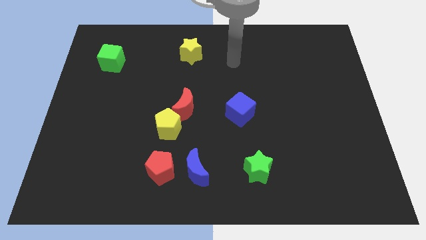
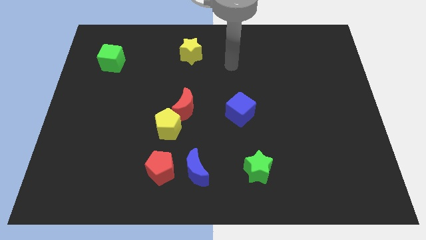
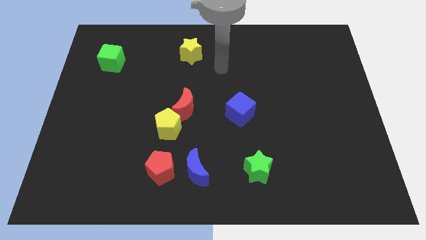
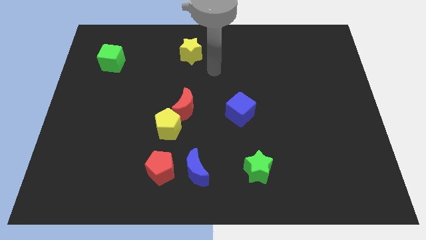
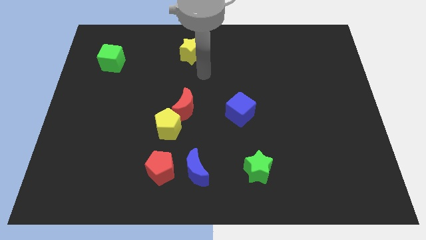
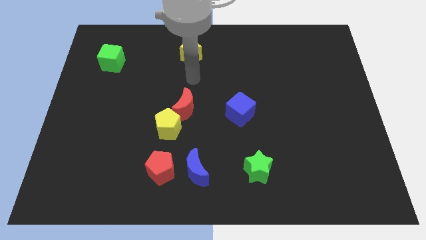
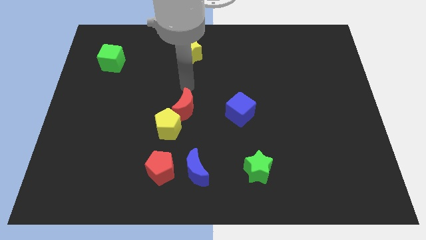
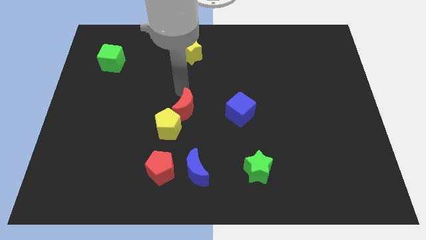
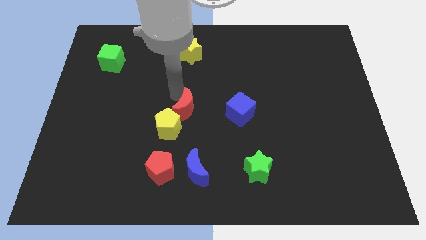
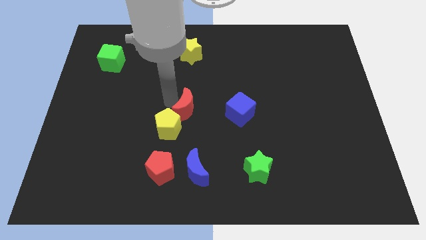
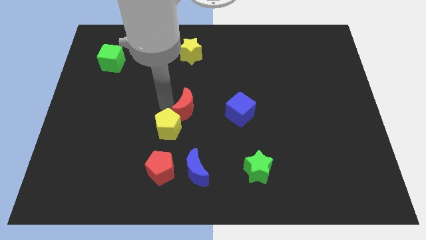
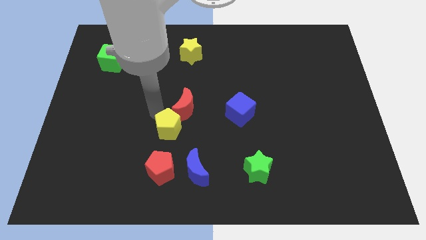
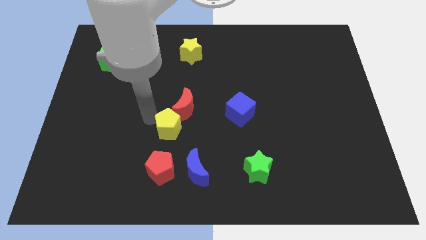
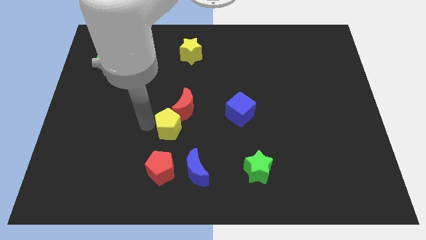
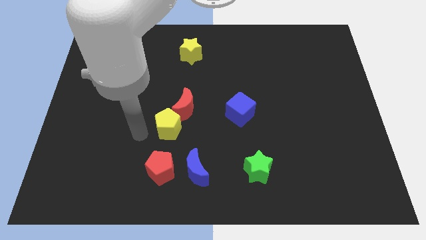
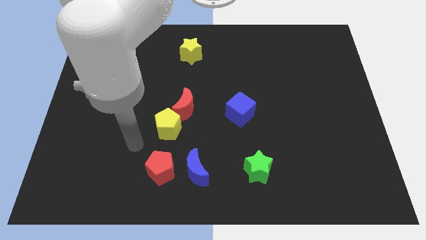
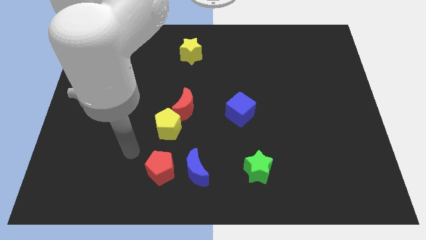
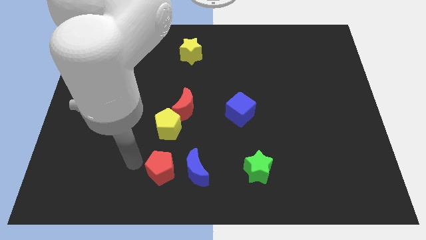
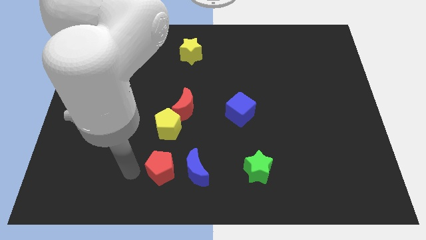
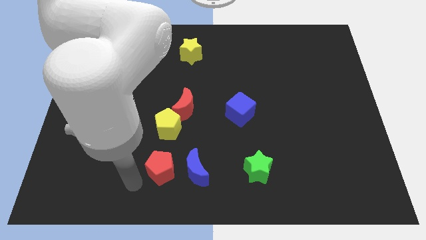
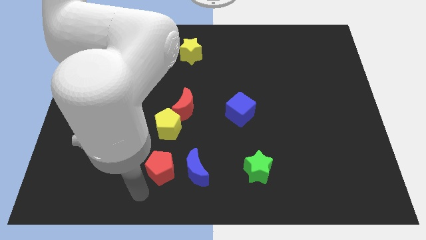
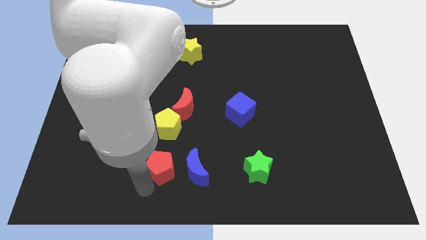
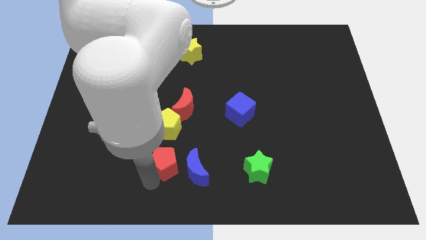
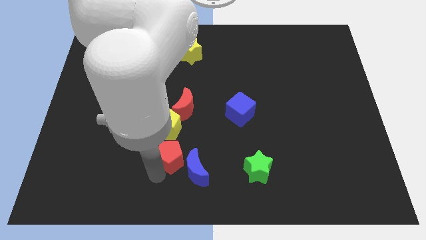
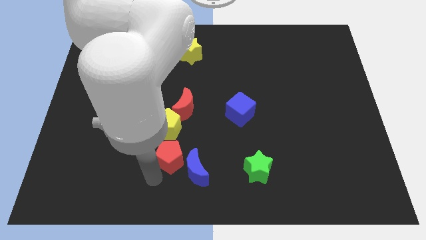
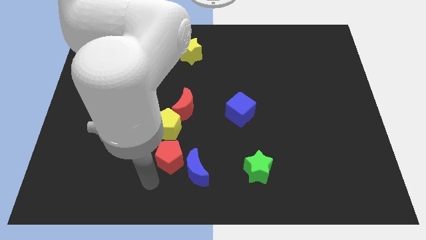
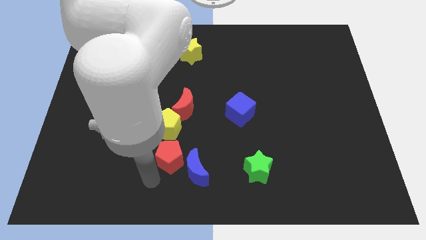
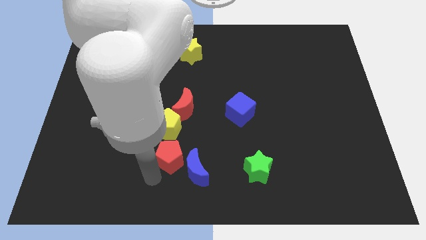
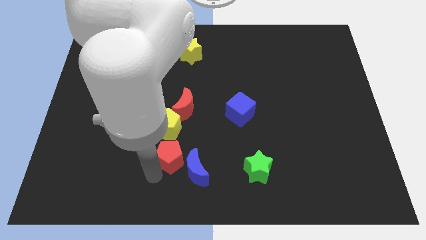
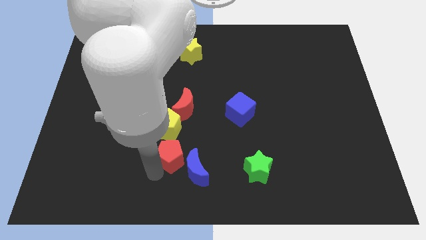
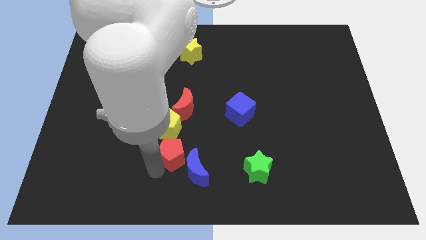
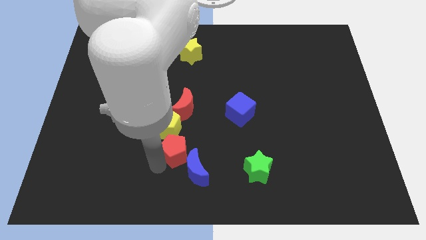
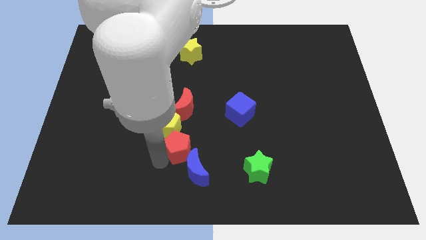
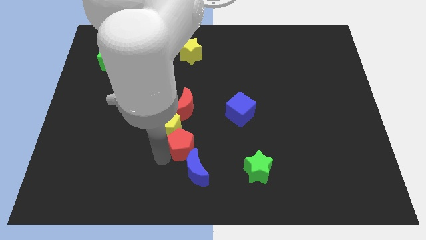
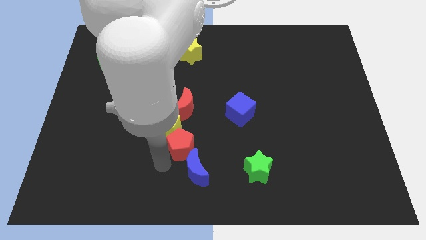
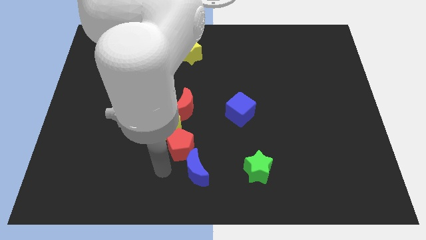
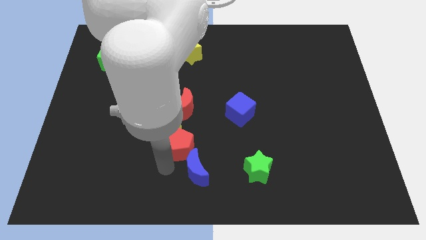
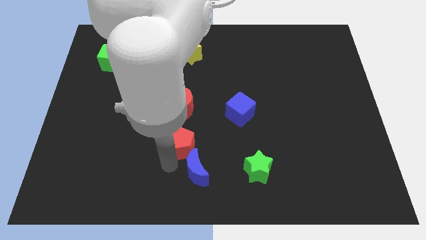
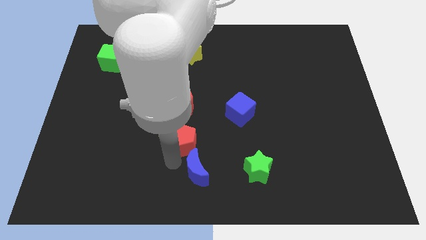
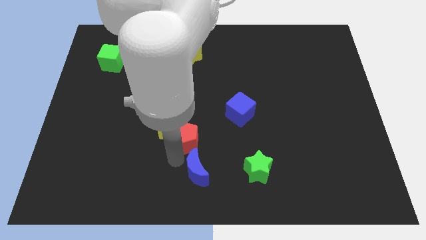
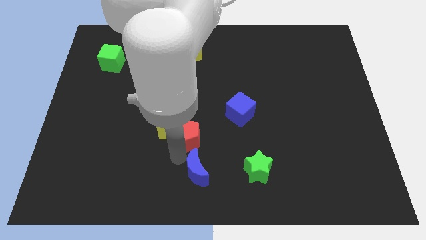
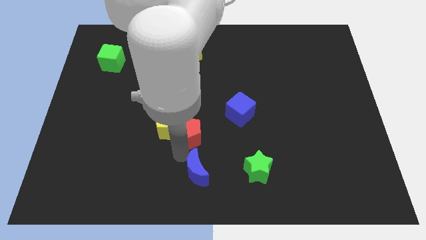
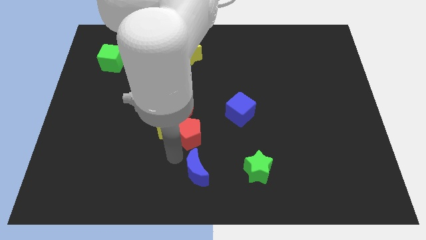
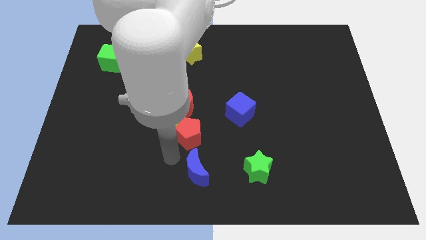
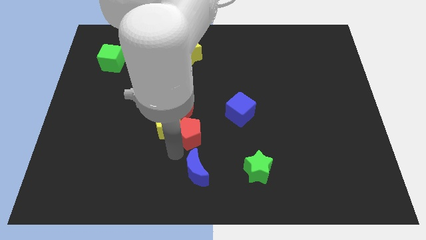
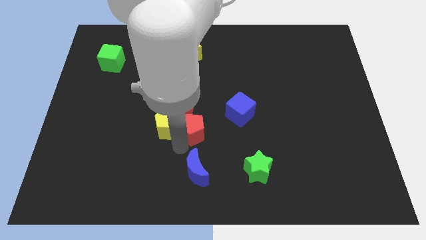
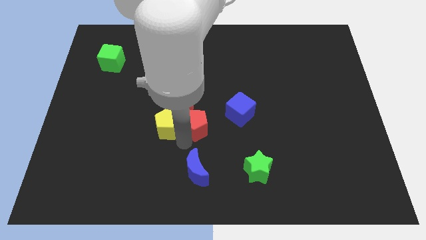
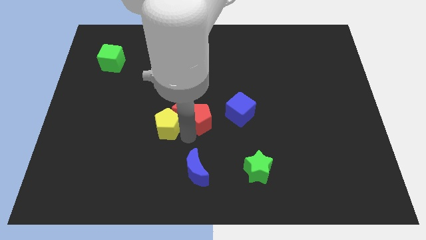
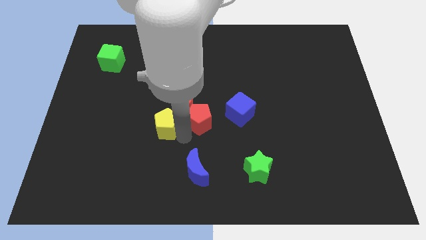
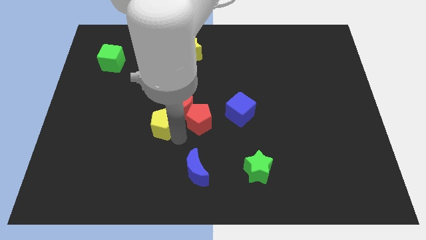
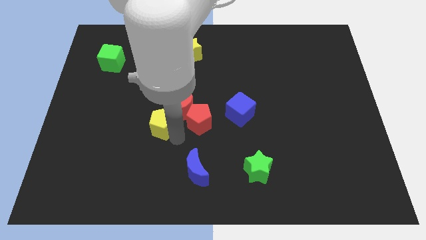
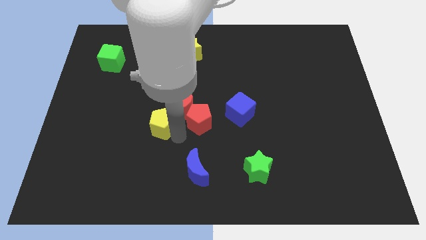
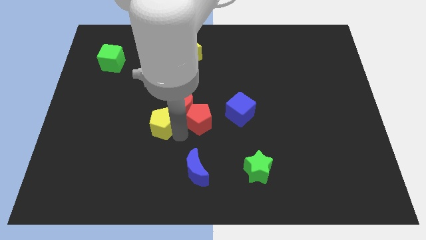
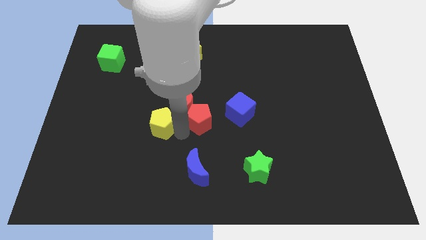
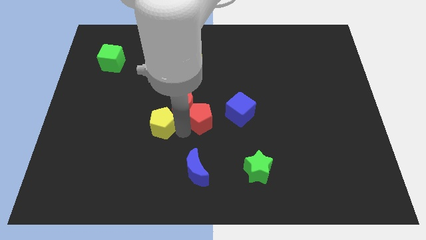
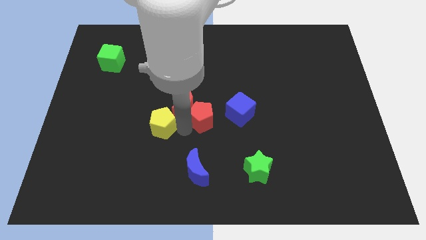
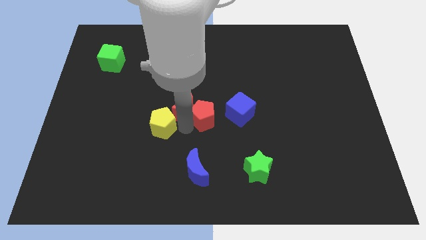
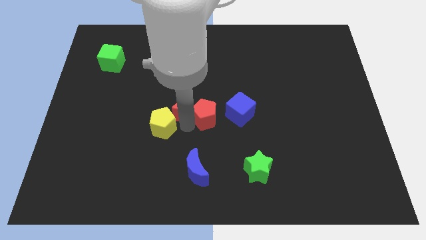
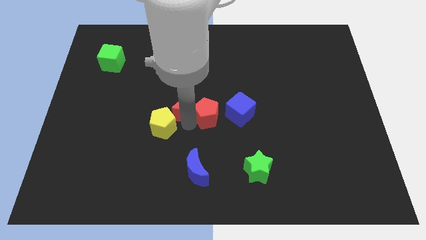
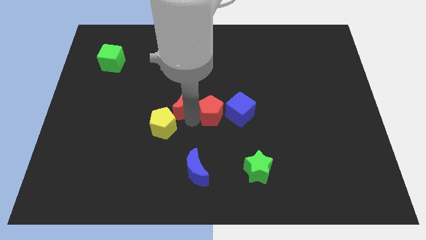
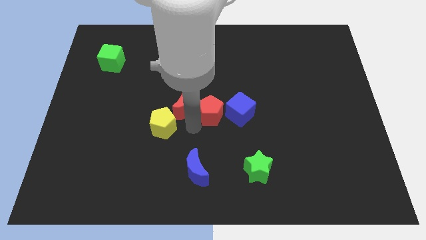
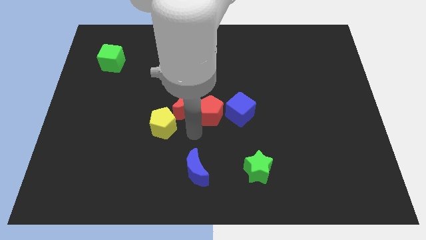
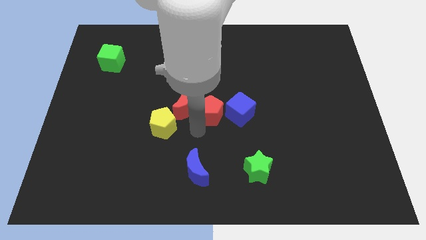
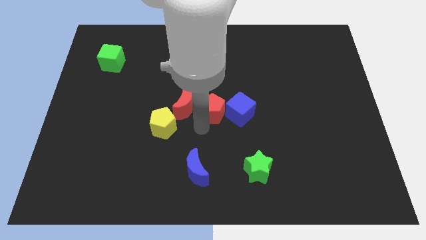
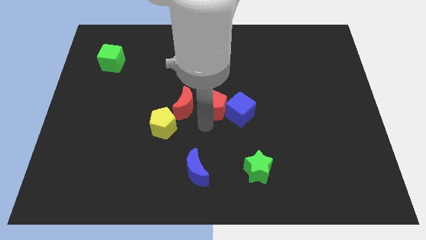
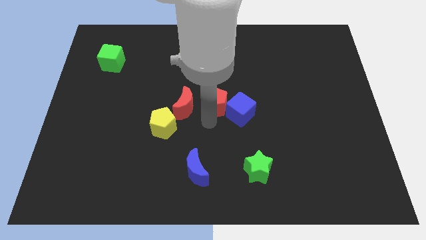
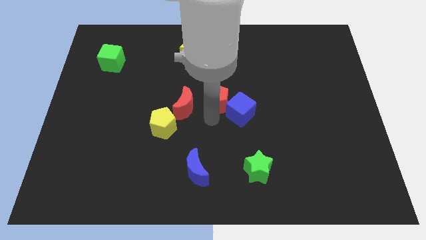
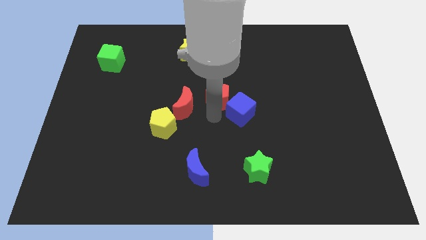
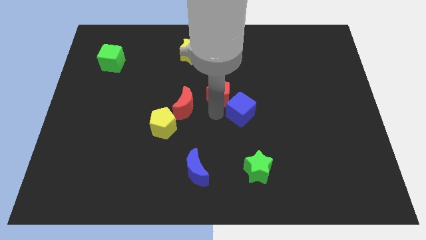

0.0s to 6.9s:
slide the red pentagon to the top side of the blue cube

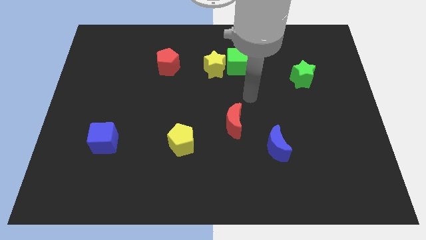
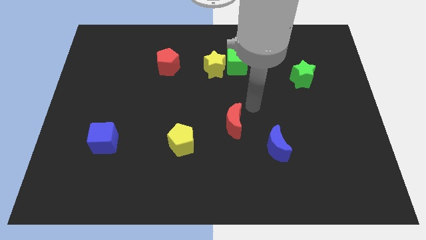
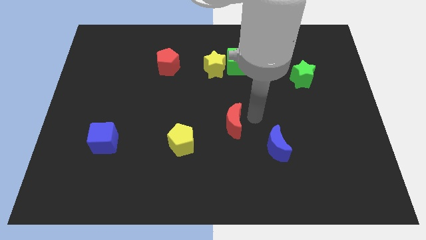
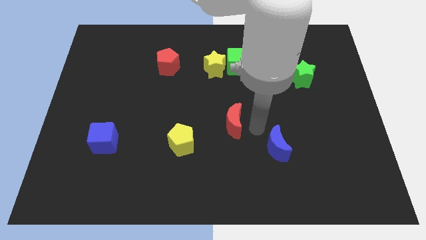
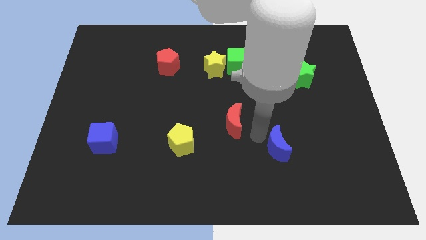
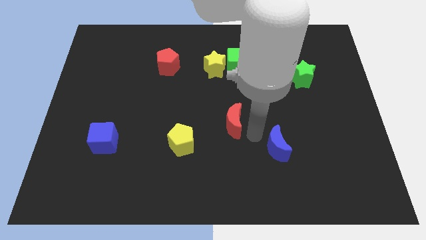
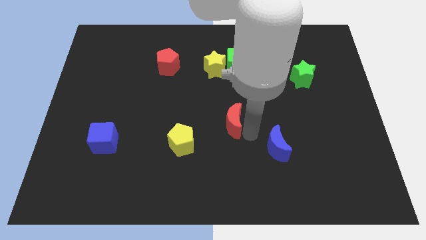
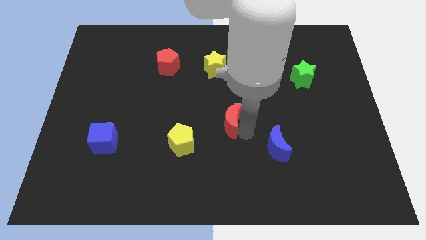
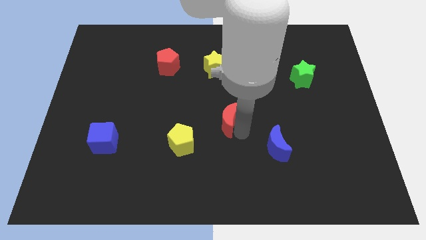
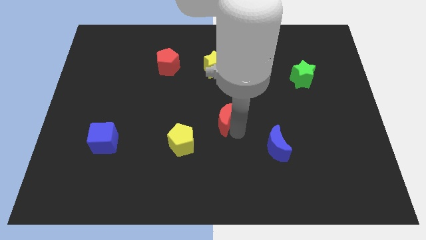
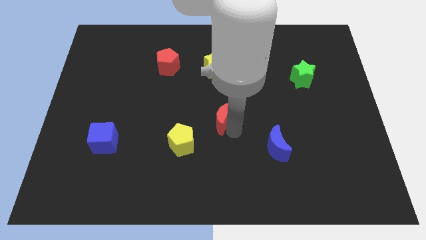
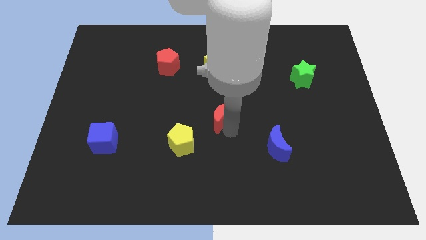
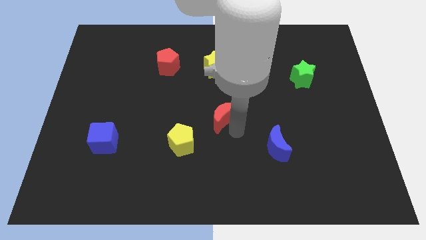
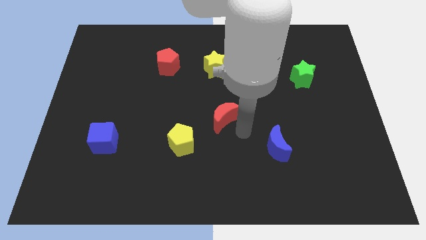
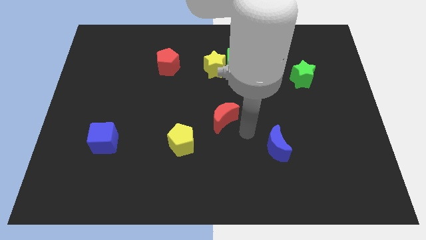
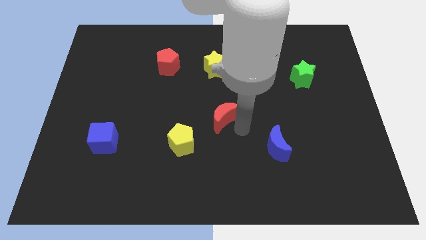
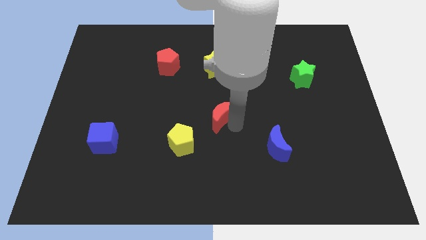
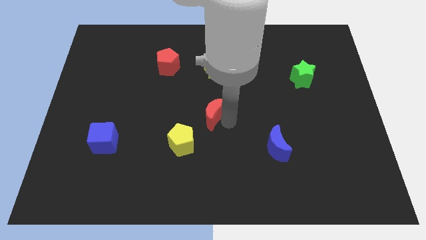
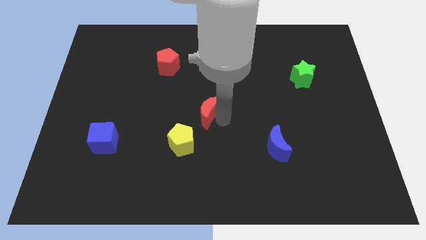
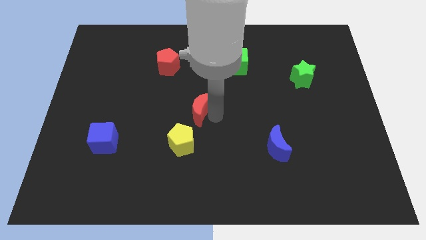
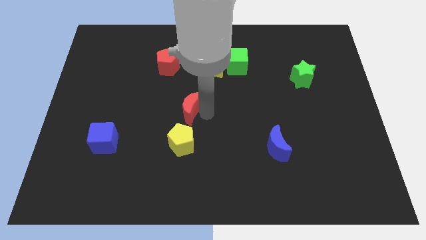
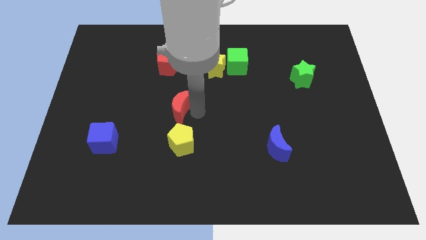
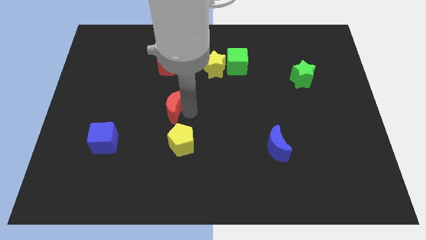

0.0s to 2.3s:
move the red moon to the bottom side of the red pentagon
